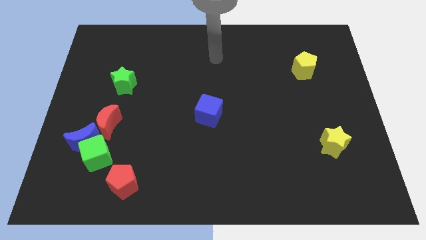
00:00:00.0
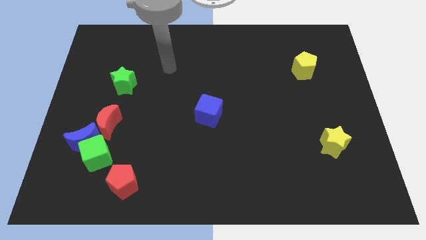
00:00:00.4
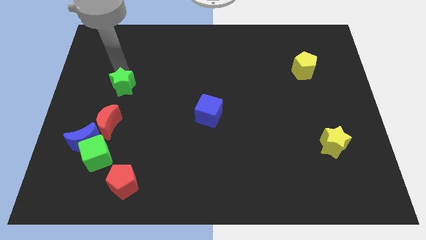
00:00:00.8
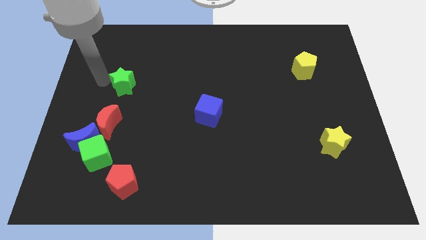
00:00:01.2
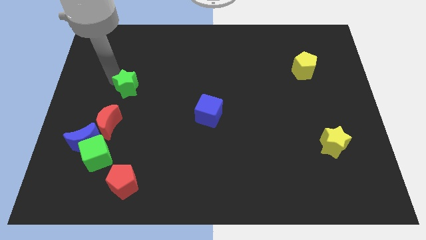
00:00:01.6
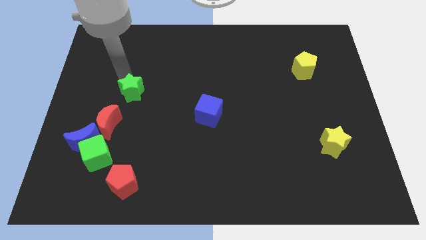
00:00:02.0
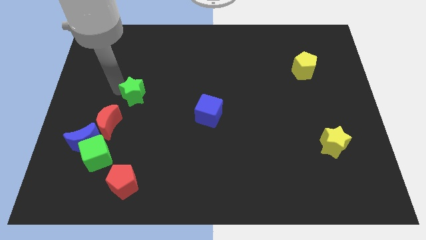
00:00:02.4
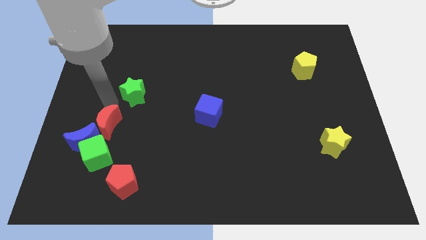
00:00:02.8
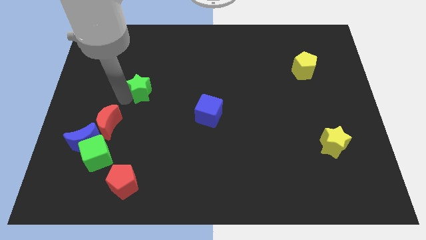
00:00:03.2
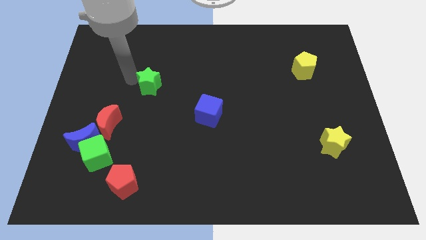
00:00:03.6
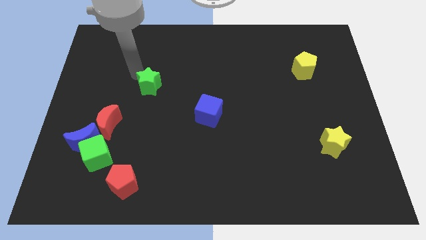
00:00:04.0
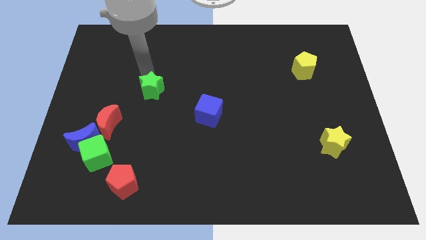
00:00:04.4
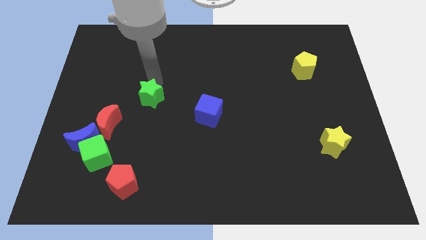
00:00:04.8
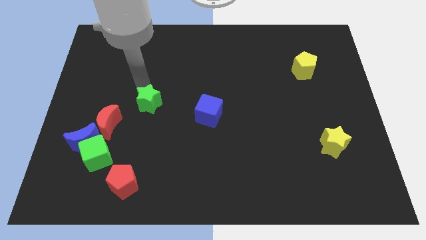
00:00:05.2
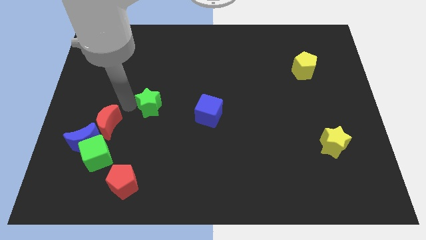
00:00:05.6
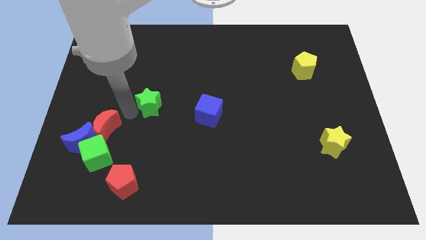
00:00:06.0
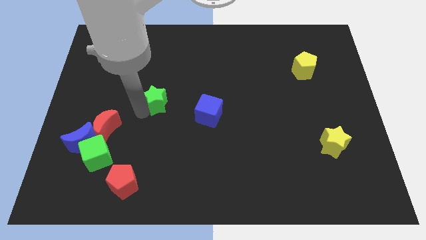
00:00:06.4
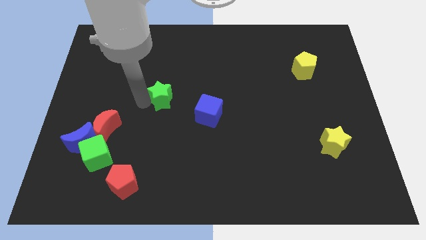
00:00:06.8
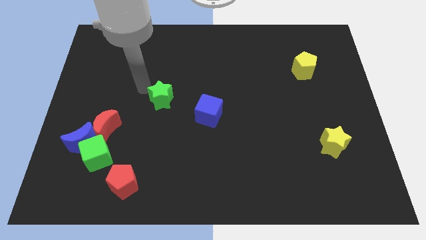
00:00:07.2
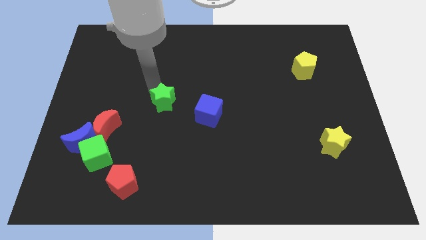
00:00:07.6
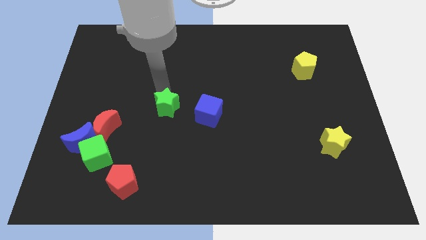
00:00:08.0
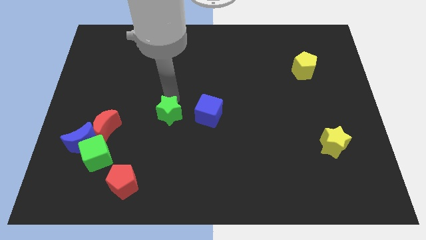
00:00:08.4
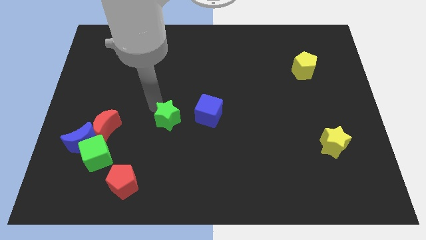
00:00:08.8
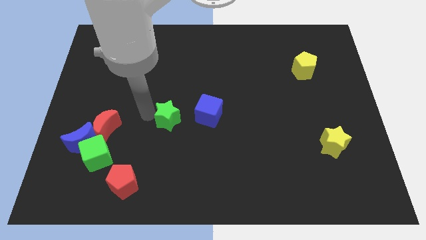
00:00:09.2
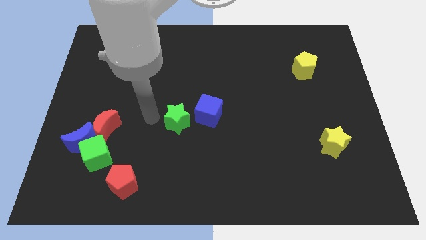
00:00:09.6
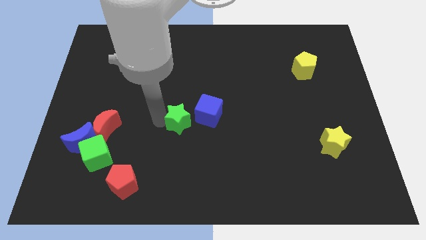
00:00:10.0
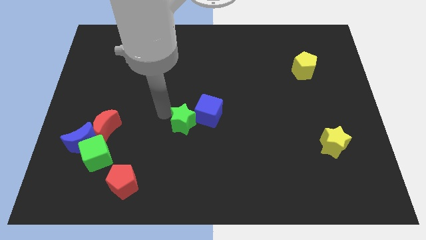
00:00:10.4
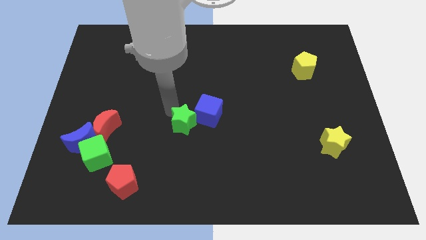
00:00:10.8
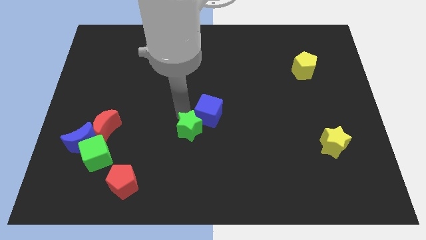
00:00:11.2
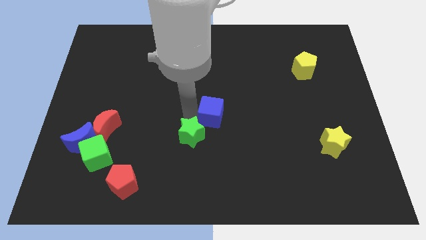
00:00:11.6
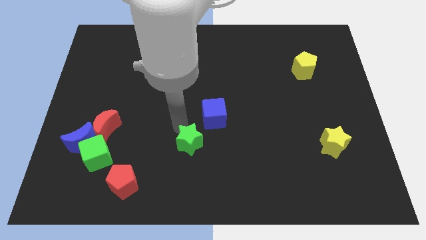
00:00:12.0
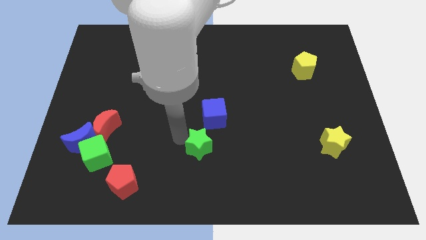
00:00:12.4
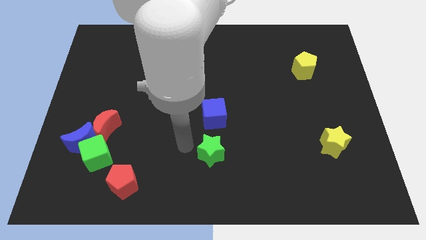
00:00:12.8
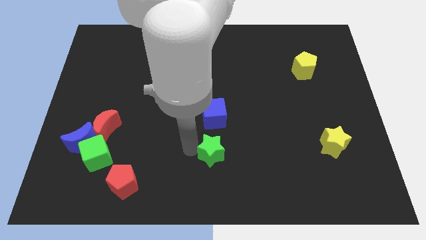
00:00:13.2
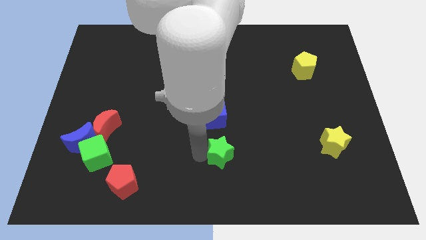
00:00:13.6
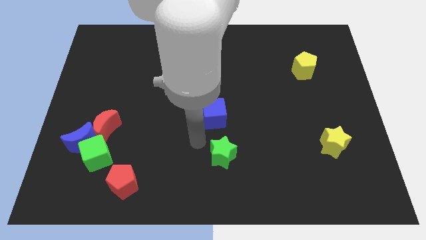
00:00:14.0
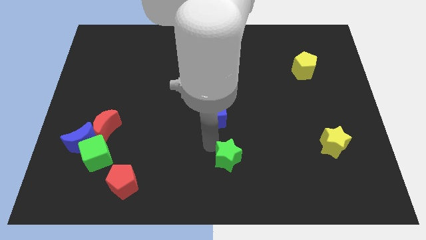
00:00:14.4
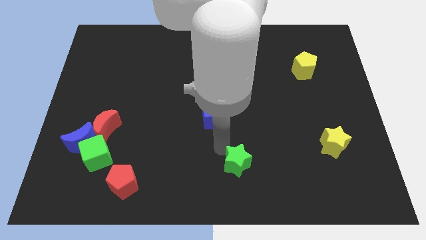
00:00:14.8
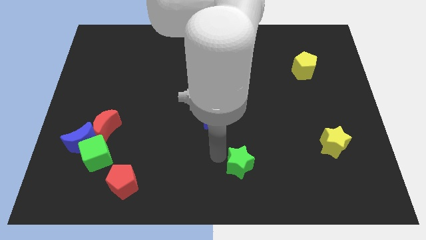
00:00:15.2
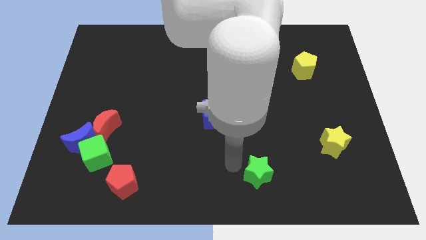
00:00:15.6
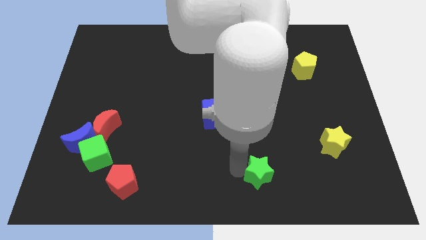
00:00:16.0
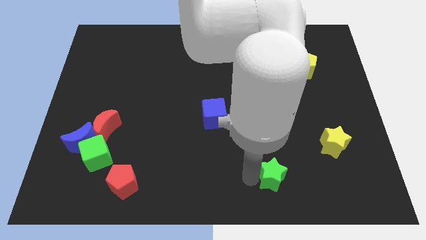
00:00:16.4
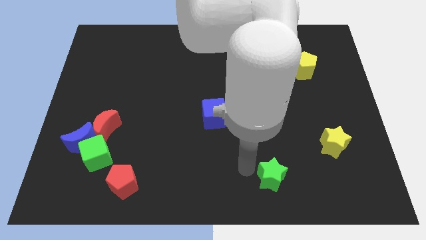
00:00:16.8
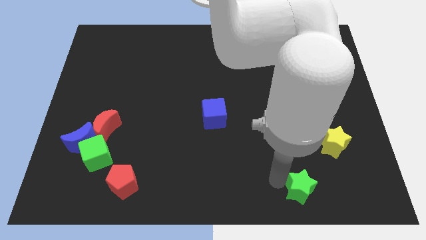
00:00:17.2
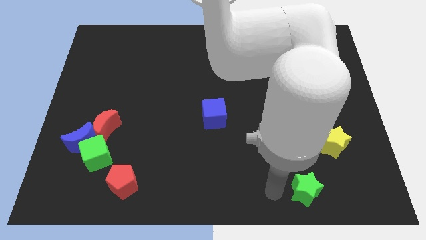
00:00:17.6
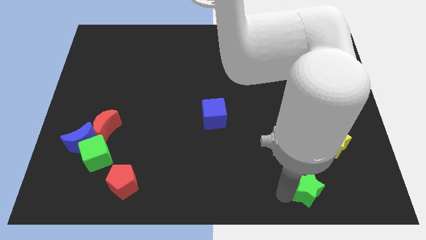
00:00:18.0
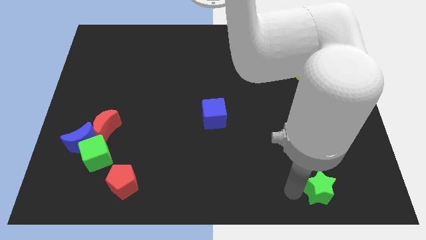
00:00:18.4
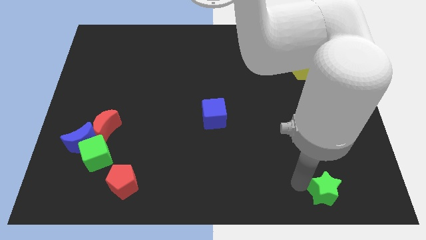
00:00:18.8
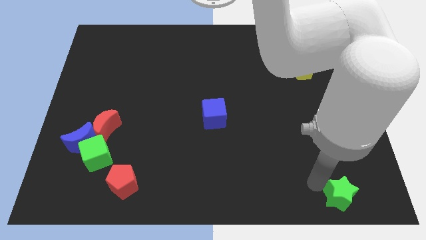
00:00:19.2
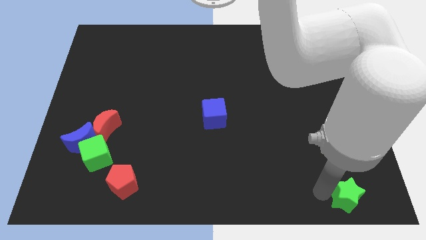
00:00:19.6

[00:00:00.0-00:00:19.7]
push the green star to the bottom right of the board

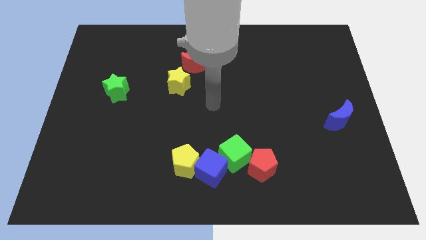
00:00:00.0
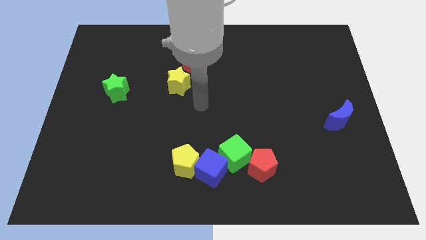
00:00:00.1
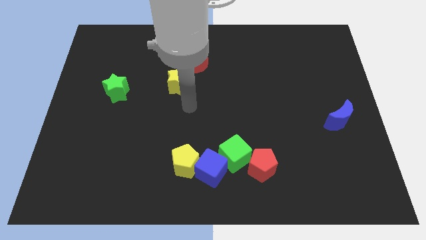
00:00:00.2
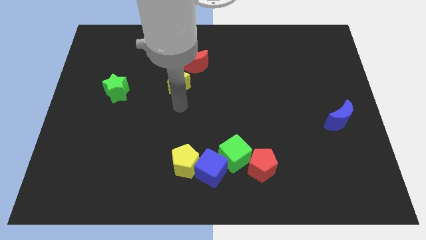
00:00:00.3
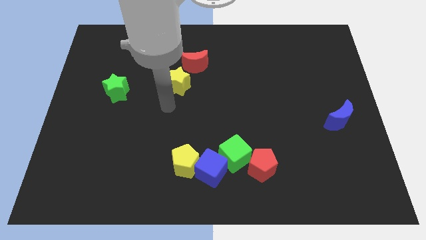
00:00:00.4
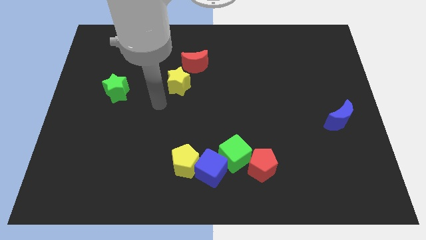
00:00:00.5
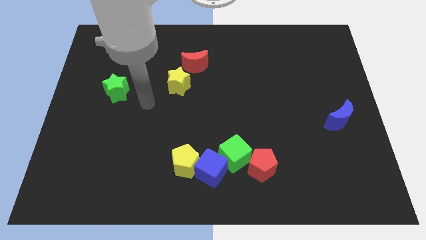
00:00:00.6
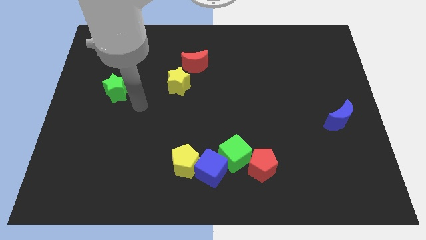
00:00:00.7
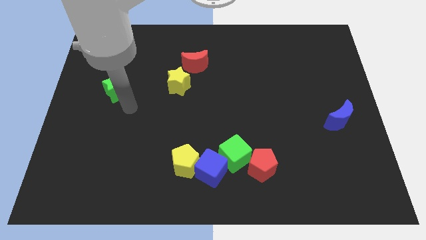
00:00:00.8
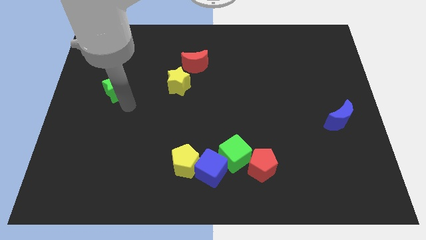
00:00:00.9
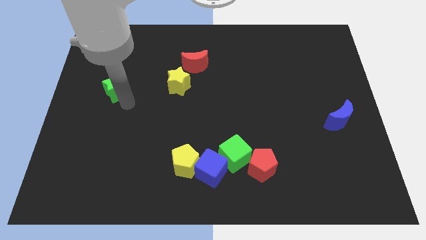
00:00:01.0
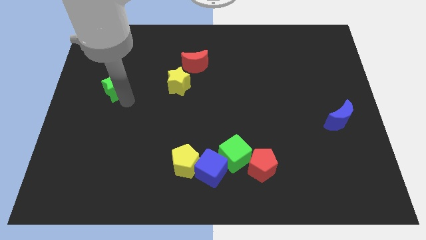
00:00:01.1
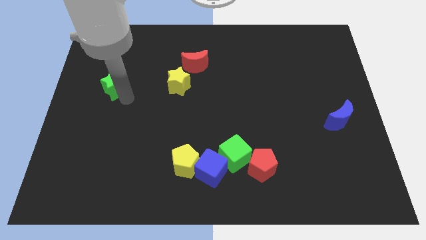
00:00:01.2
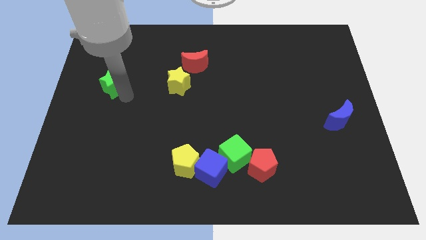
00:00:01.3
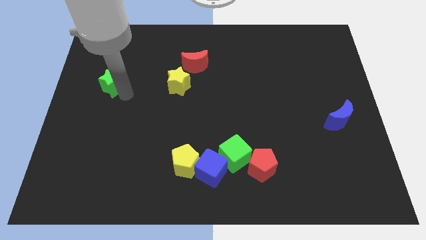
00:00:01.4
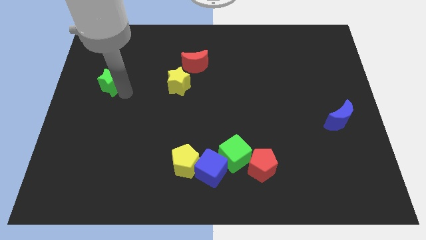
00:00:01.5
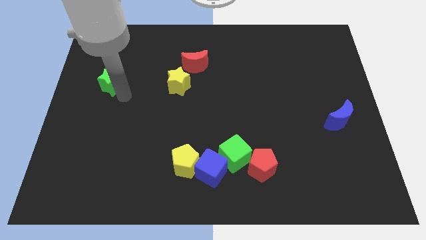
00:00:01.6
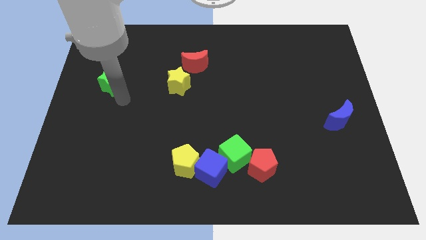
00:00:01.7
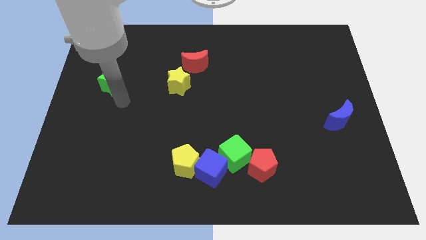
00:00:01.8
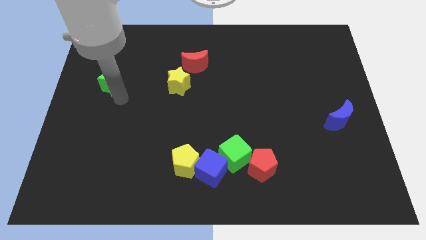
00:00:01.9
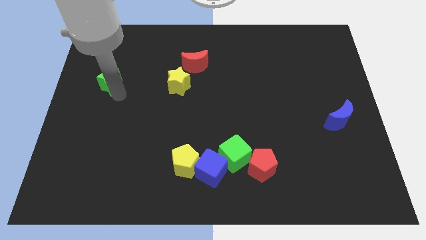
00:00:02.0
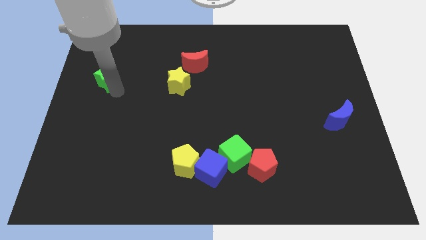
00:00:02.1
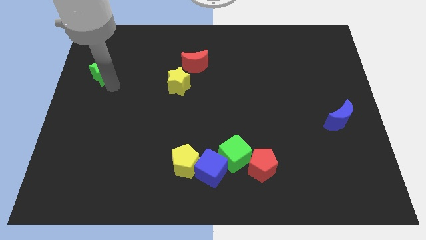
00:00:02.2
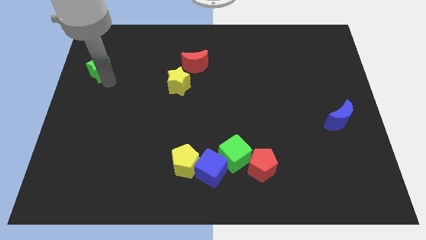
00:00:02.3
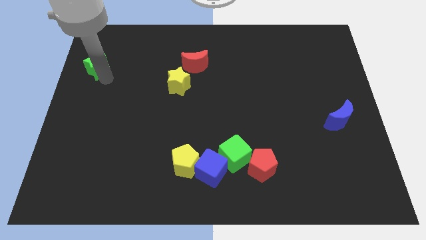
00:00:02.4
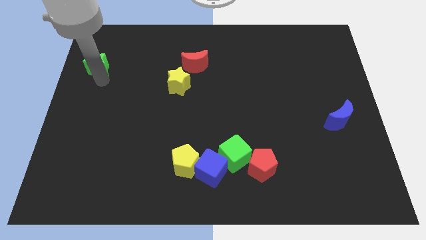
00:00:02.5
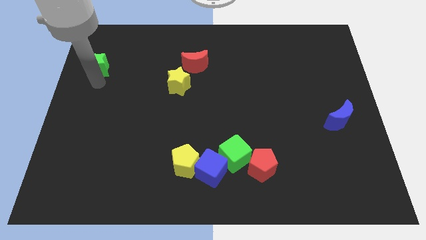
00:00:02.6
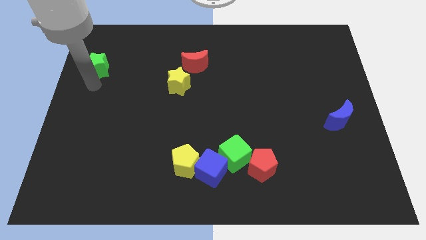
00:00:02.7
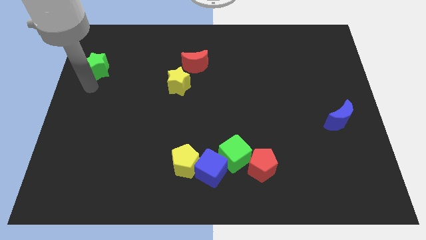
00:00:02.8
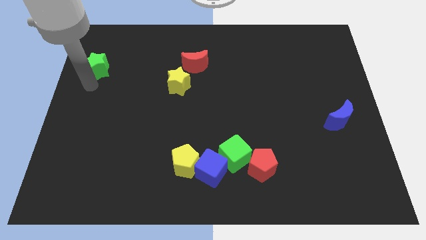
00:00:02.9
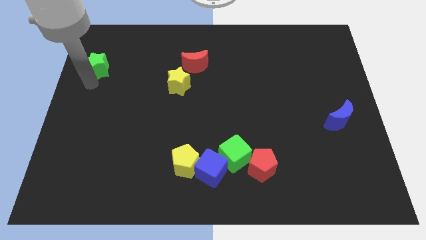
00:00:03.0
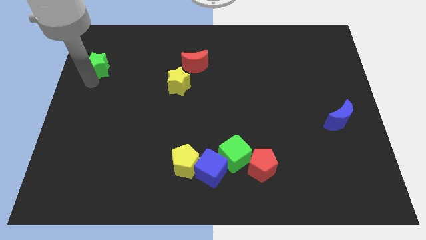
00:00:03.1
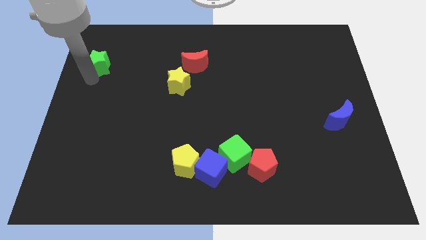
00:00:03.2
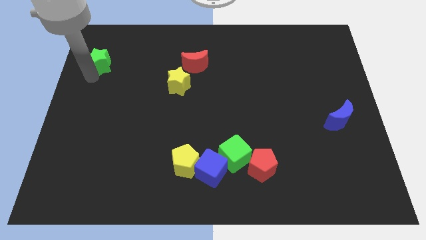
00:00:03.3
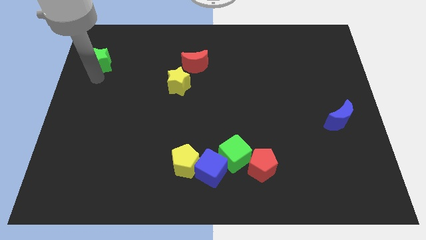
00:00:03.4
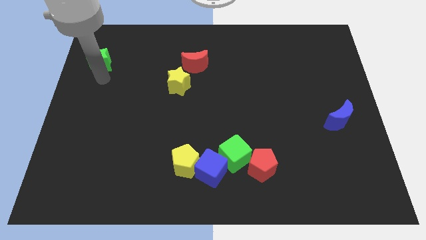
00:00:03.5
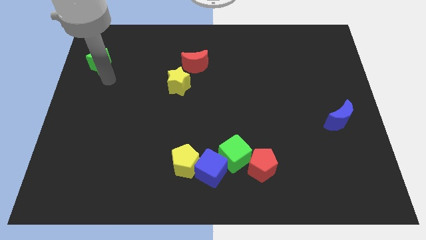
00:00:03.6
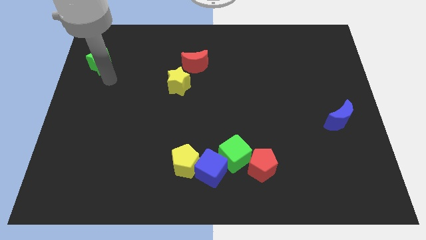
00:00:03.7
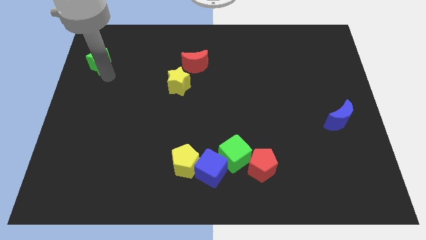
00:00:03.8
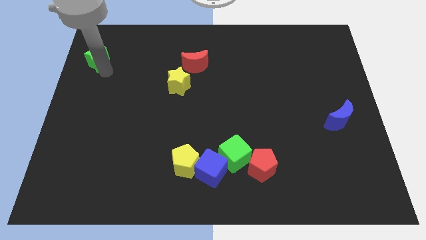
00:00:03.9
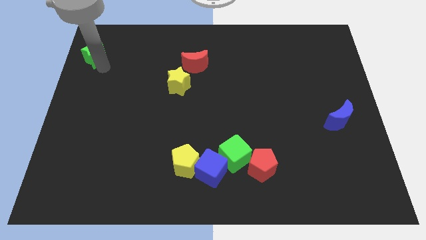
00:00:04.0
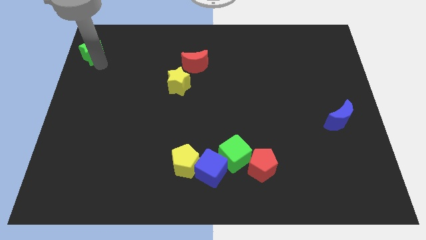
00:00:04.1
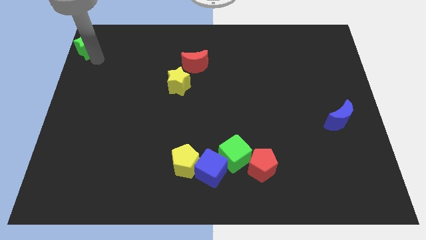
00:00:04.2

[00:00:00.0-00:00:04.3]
slide the green star to the top left of the board
